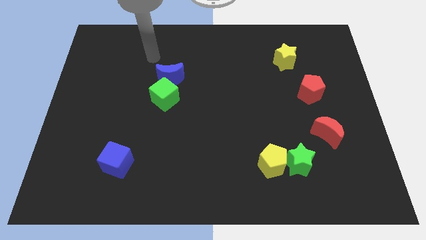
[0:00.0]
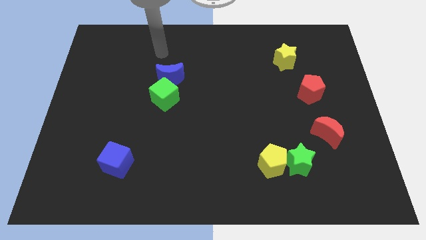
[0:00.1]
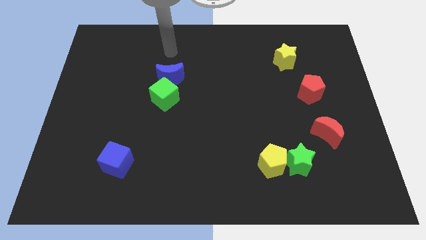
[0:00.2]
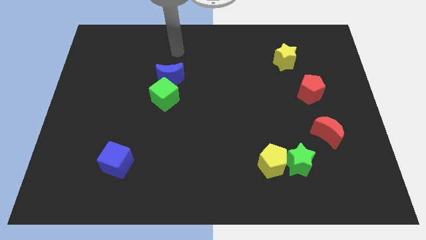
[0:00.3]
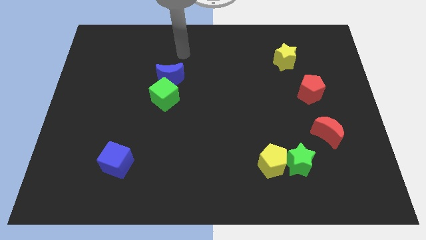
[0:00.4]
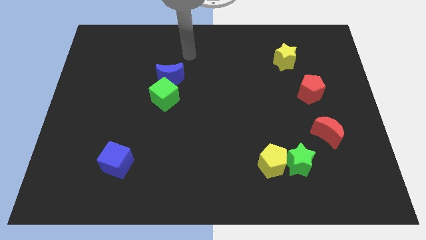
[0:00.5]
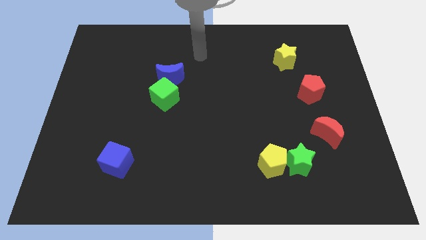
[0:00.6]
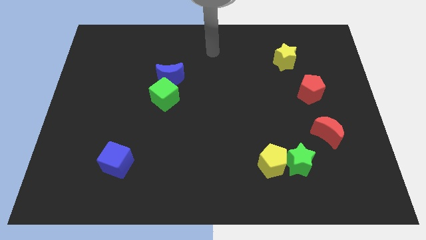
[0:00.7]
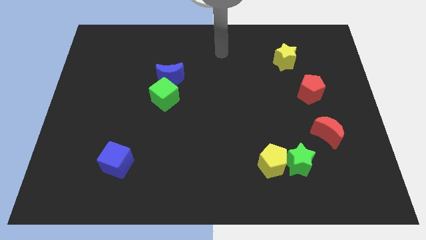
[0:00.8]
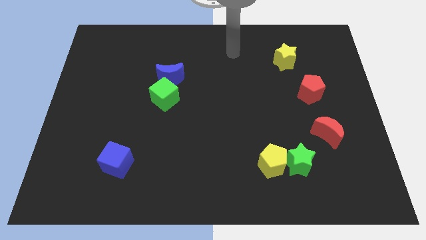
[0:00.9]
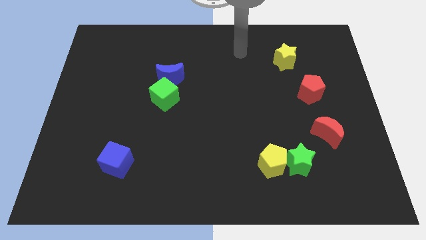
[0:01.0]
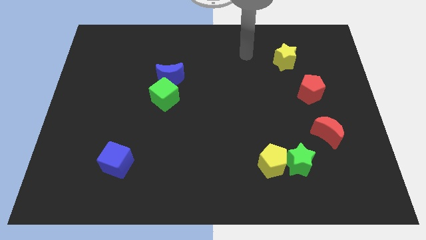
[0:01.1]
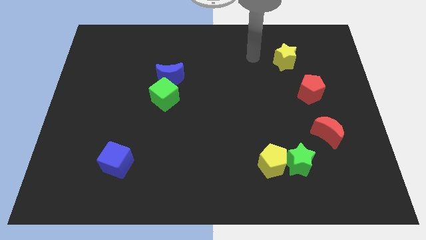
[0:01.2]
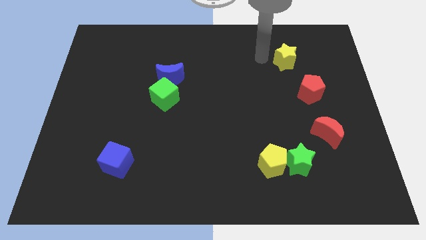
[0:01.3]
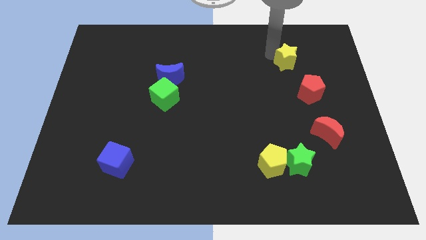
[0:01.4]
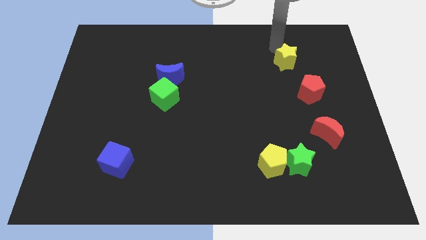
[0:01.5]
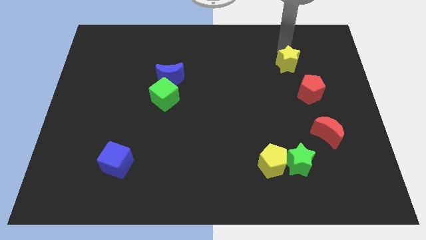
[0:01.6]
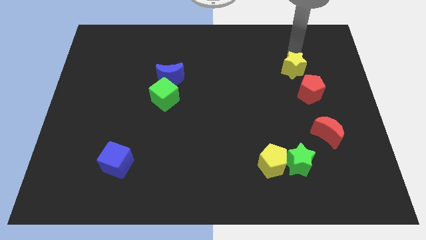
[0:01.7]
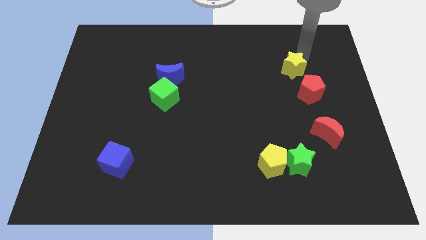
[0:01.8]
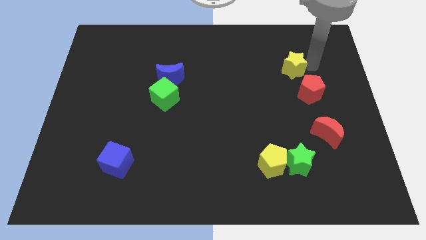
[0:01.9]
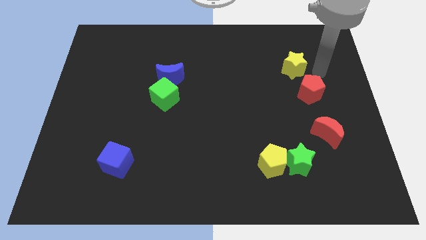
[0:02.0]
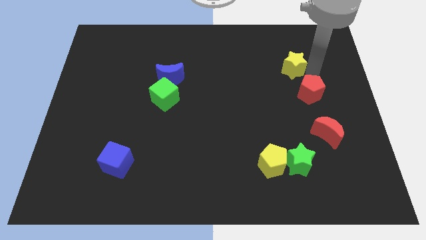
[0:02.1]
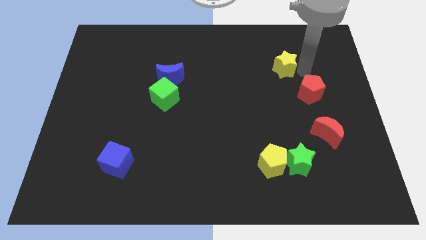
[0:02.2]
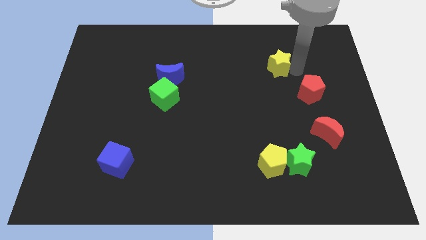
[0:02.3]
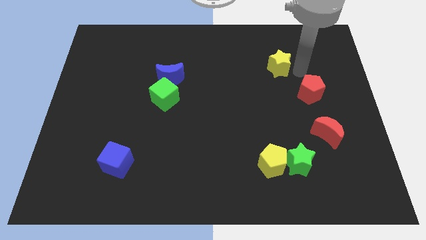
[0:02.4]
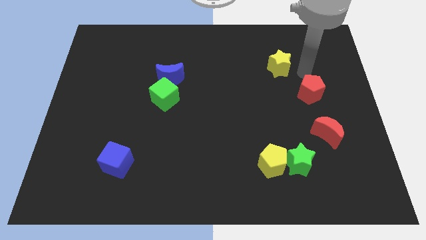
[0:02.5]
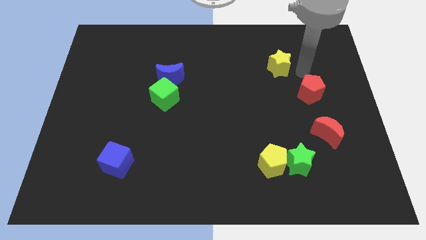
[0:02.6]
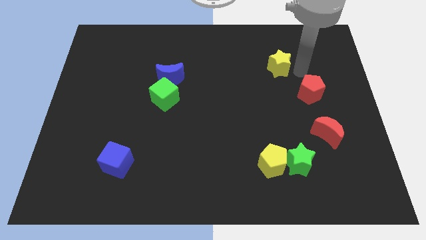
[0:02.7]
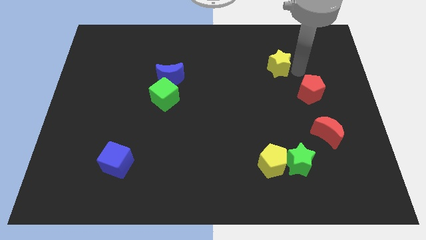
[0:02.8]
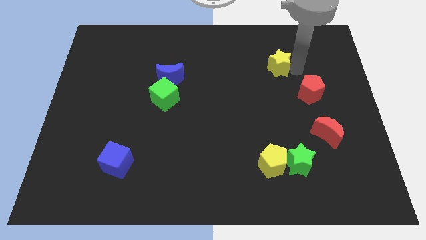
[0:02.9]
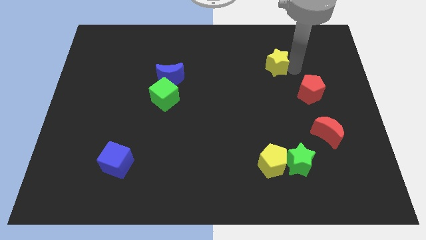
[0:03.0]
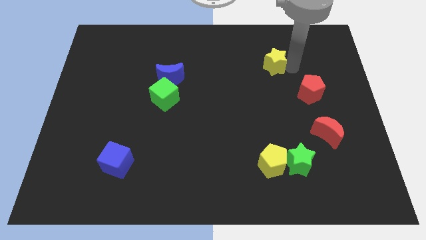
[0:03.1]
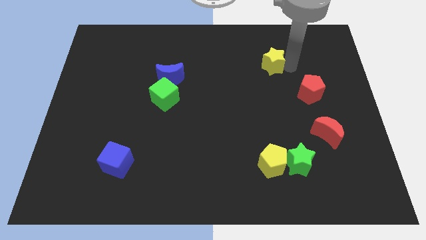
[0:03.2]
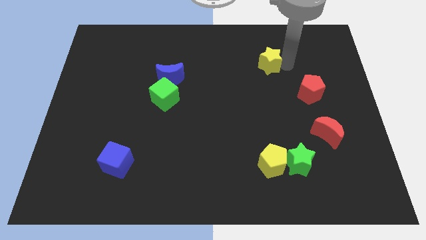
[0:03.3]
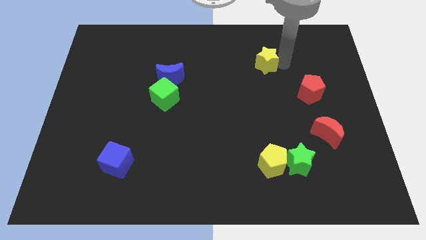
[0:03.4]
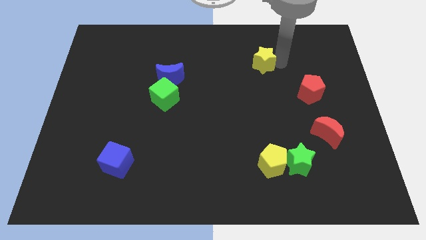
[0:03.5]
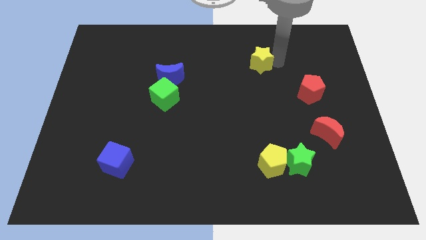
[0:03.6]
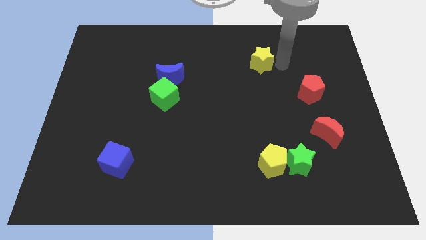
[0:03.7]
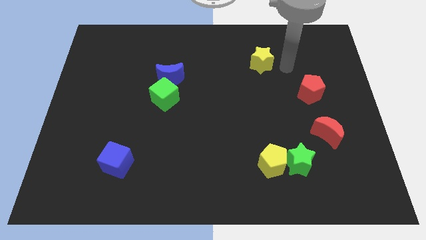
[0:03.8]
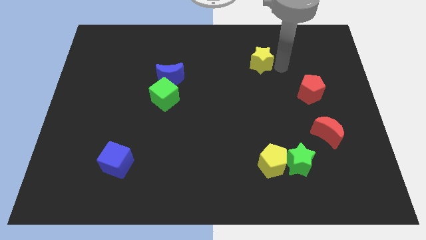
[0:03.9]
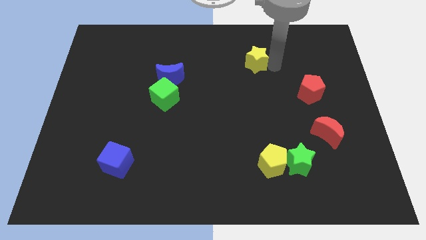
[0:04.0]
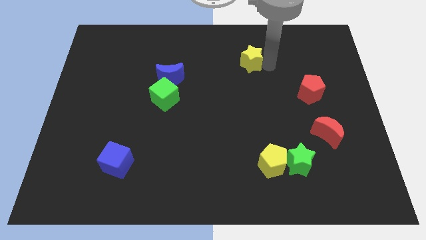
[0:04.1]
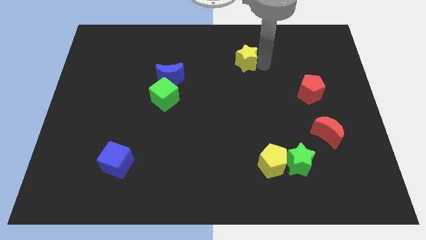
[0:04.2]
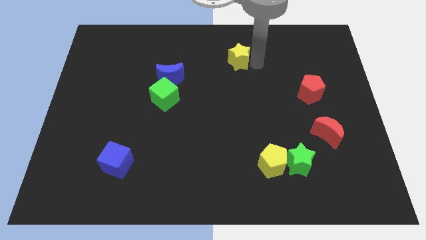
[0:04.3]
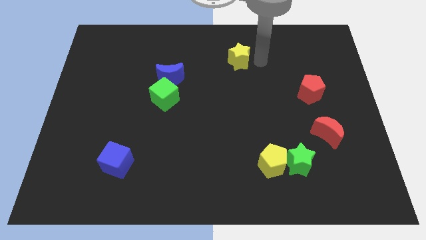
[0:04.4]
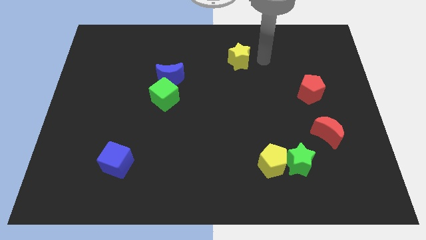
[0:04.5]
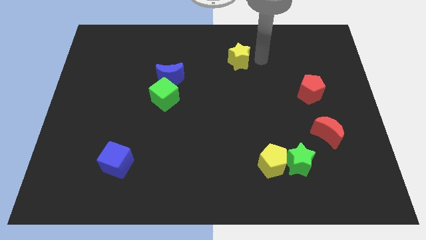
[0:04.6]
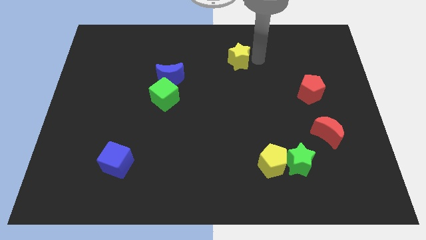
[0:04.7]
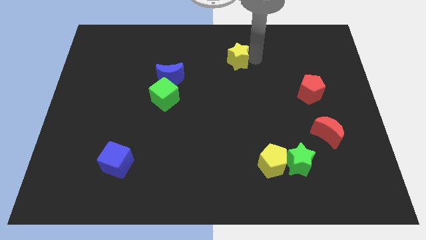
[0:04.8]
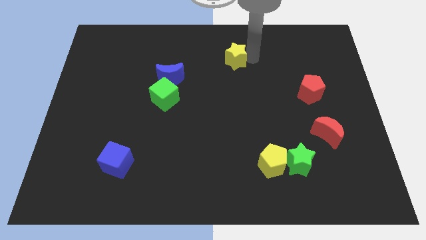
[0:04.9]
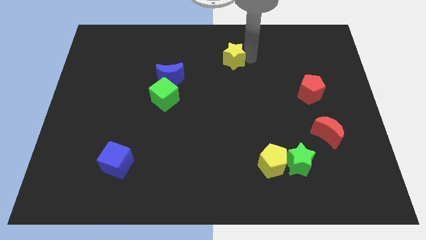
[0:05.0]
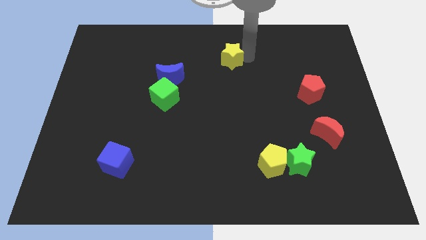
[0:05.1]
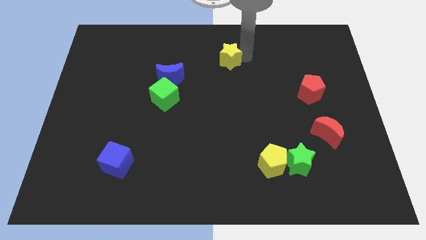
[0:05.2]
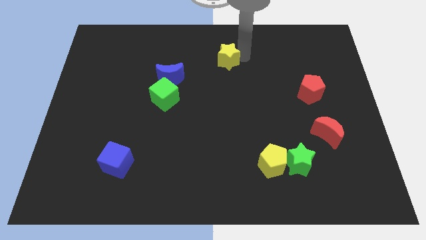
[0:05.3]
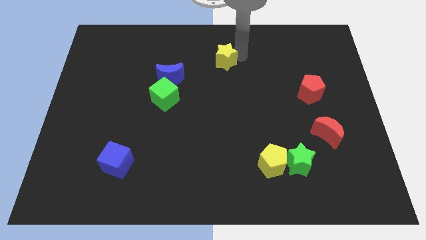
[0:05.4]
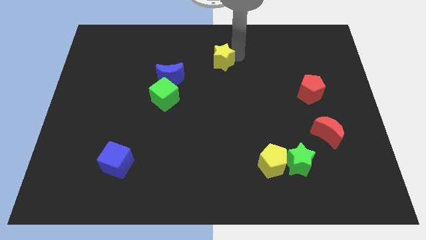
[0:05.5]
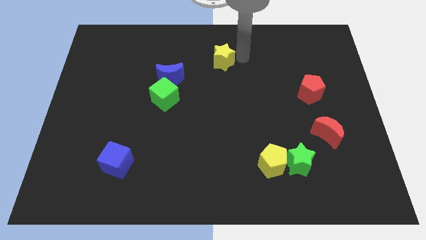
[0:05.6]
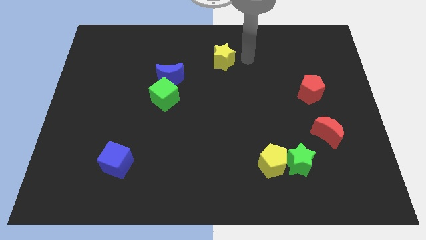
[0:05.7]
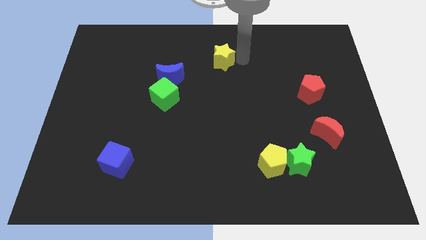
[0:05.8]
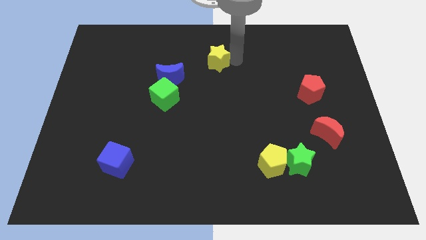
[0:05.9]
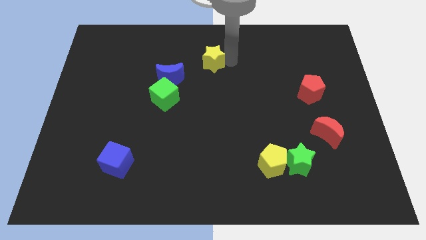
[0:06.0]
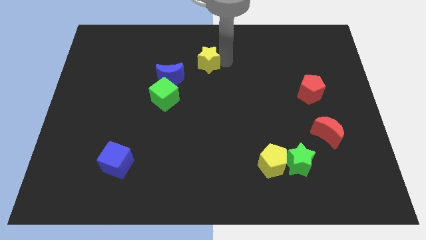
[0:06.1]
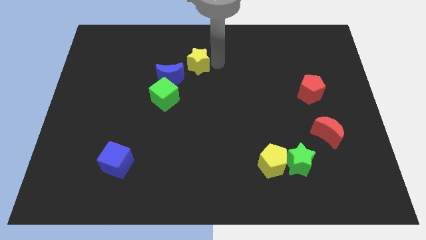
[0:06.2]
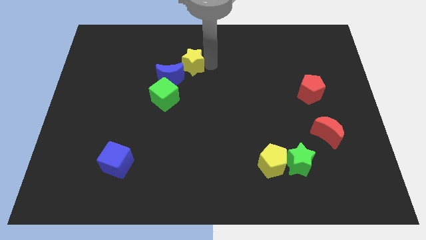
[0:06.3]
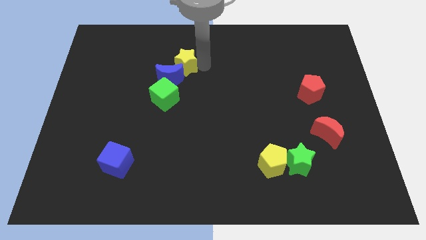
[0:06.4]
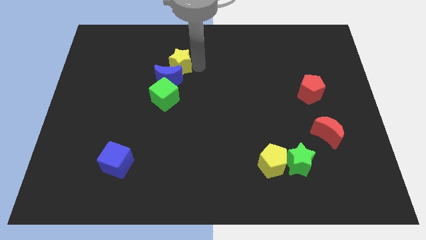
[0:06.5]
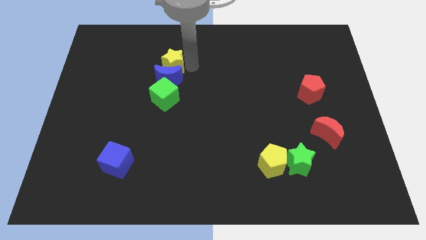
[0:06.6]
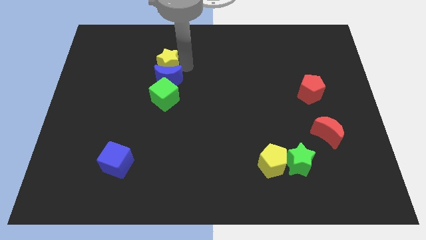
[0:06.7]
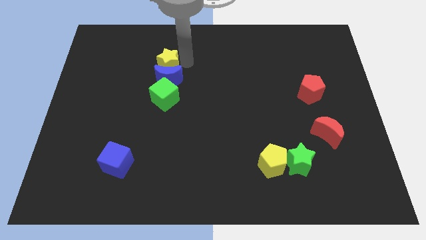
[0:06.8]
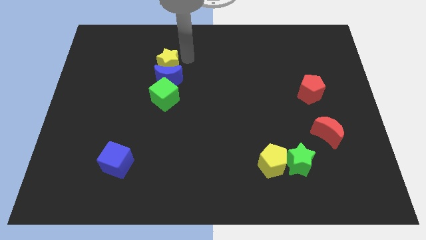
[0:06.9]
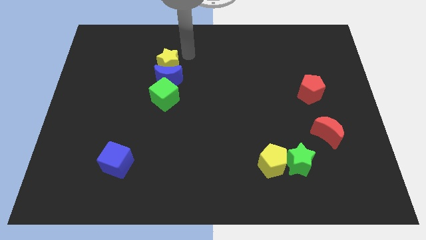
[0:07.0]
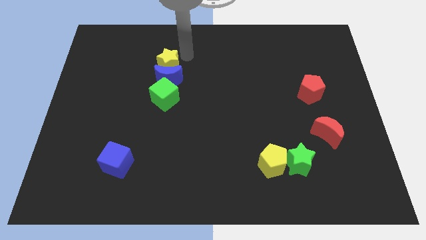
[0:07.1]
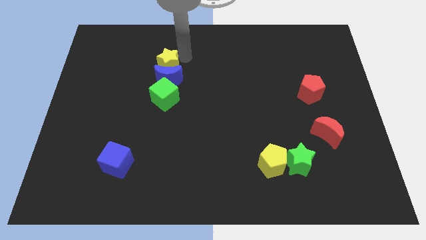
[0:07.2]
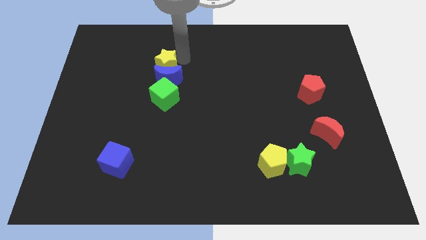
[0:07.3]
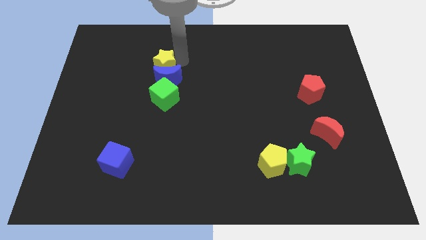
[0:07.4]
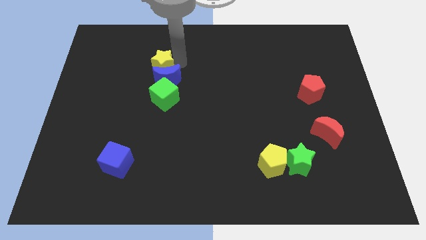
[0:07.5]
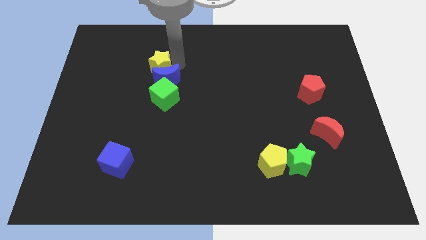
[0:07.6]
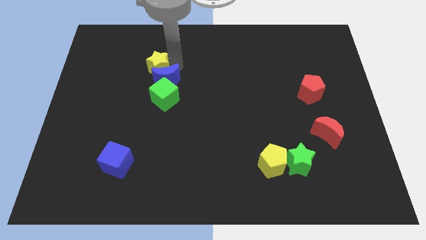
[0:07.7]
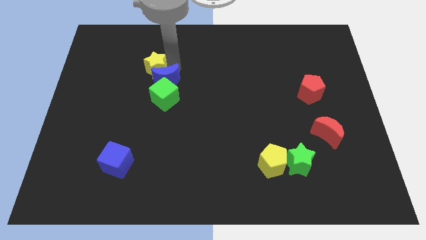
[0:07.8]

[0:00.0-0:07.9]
slide the yellow star diagonally up and to the left of the green cube
